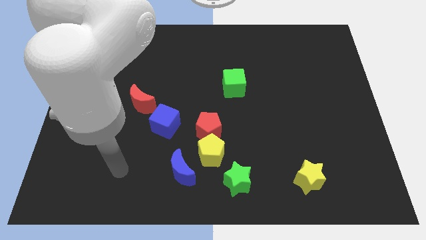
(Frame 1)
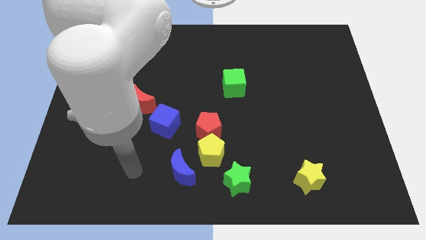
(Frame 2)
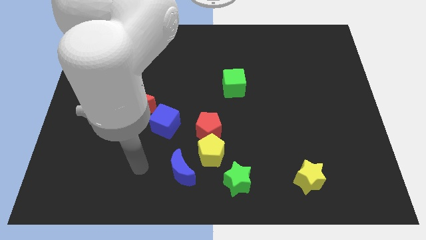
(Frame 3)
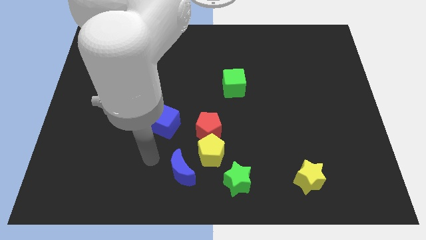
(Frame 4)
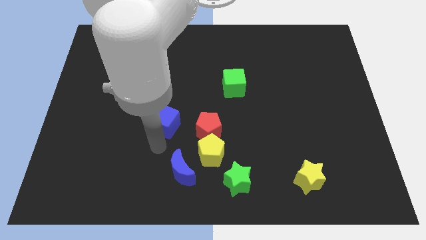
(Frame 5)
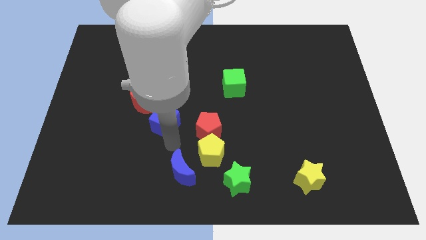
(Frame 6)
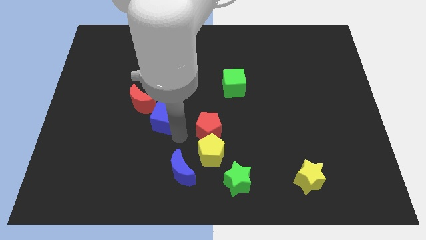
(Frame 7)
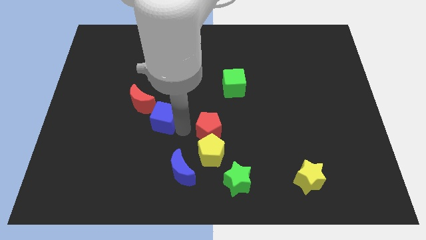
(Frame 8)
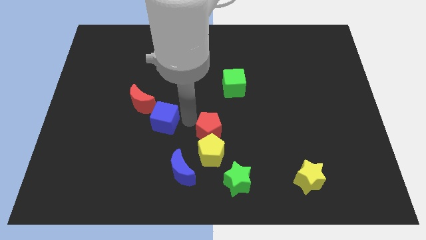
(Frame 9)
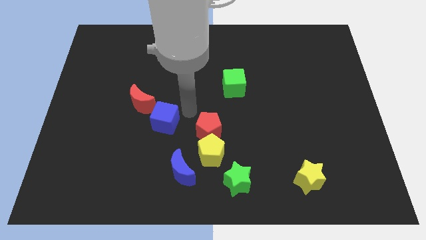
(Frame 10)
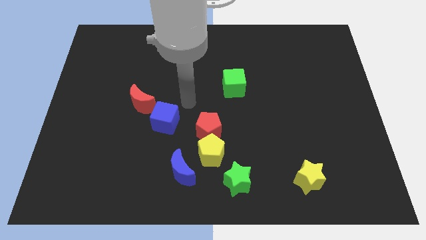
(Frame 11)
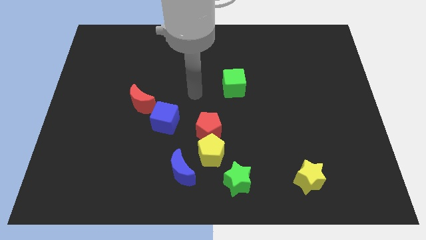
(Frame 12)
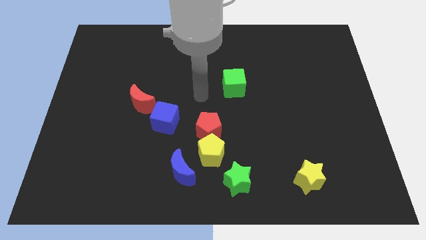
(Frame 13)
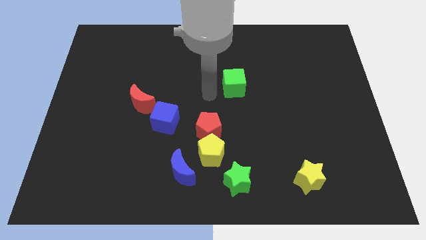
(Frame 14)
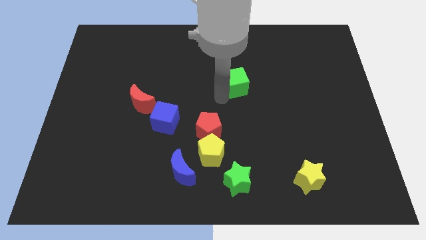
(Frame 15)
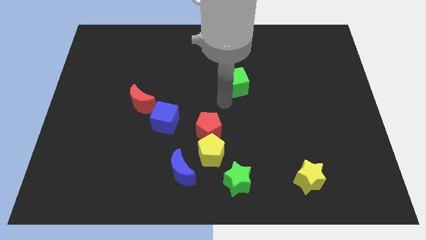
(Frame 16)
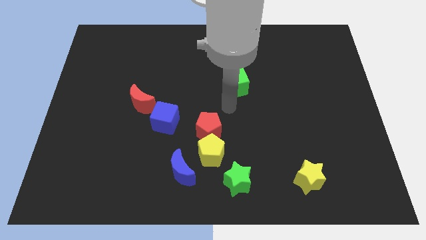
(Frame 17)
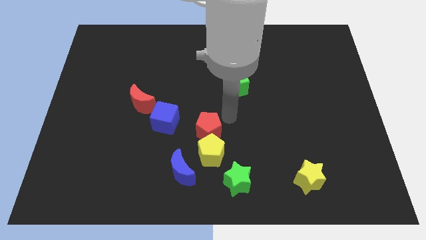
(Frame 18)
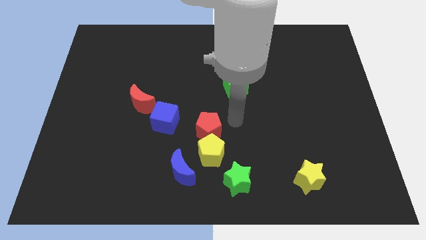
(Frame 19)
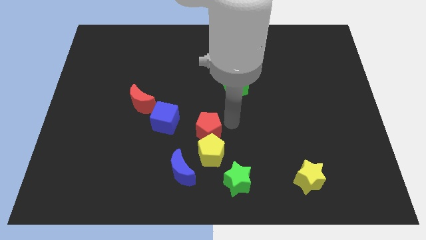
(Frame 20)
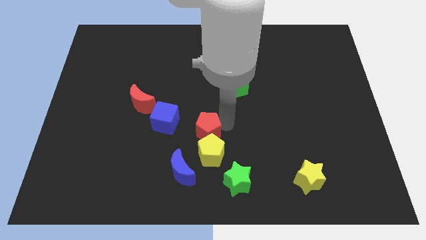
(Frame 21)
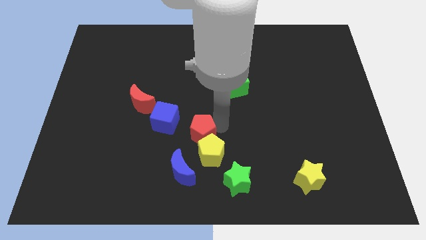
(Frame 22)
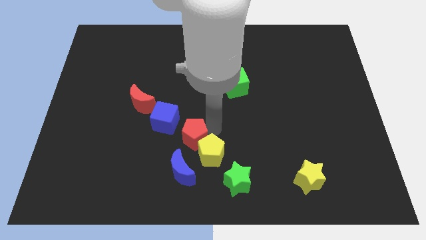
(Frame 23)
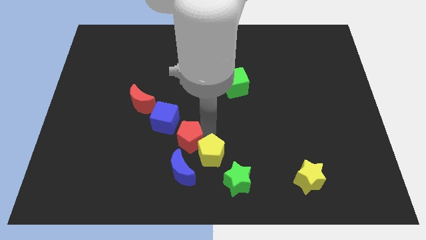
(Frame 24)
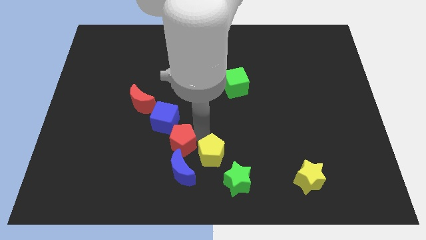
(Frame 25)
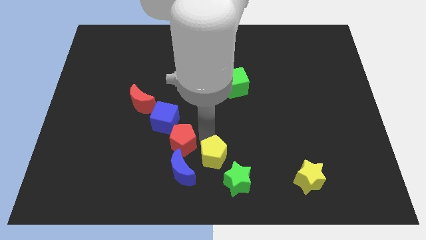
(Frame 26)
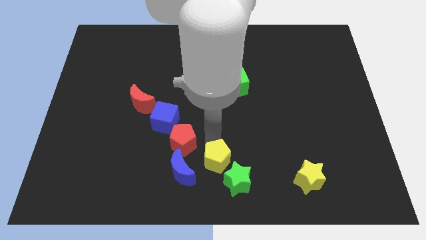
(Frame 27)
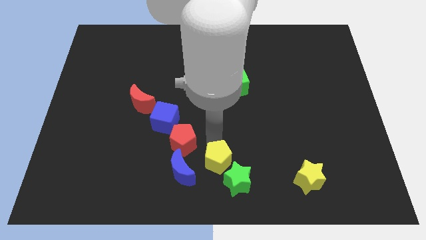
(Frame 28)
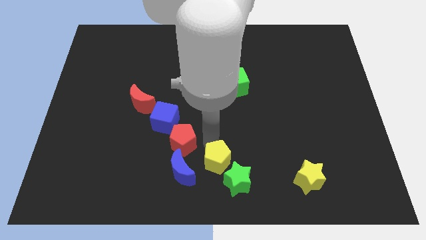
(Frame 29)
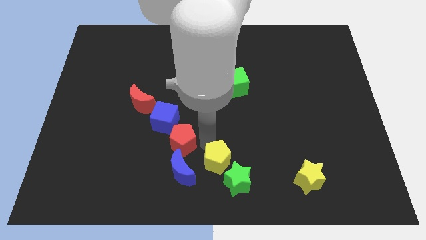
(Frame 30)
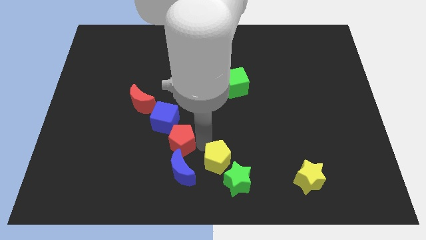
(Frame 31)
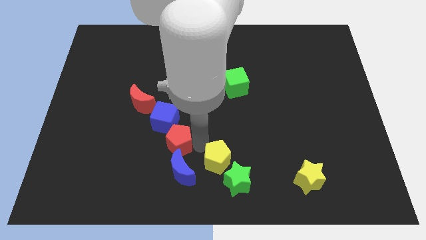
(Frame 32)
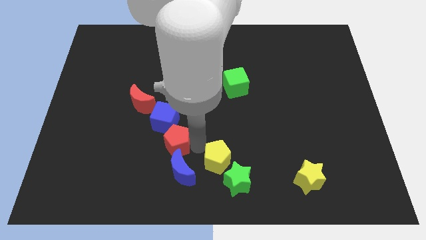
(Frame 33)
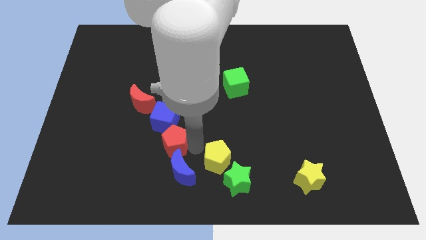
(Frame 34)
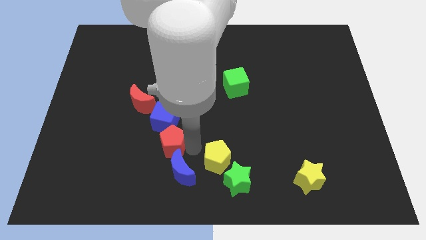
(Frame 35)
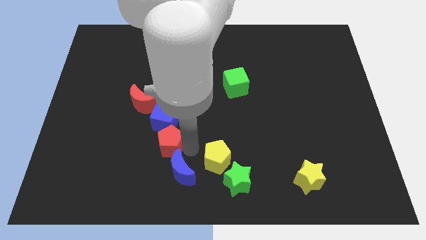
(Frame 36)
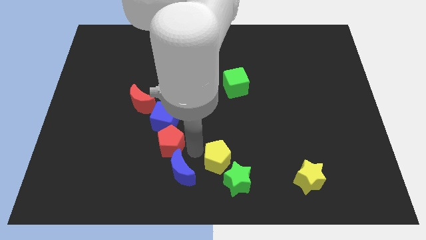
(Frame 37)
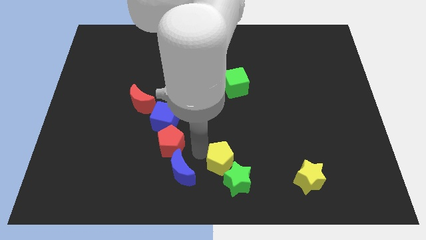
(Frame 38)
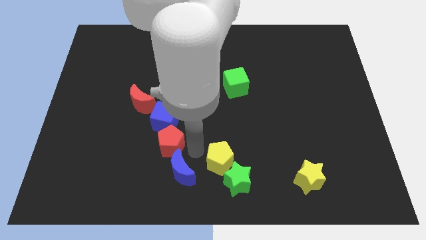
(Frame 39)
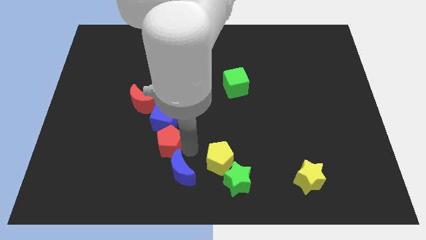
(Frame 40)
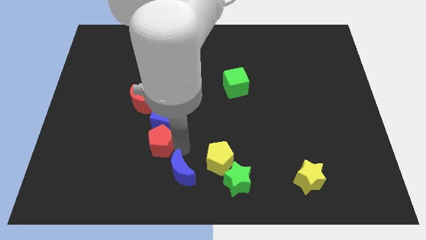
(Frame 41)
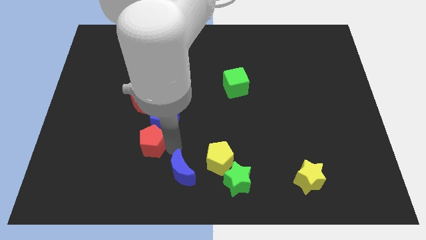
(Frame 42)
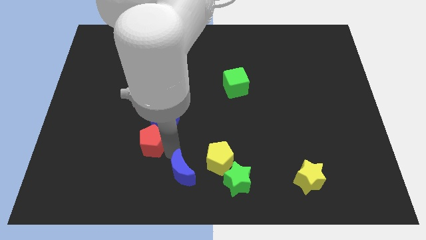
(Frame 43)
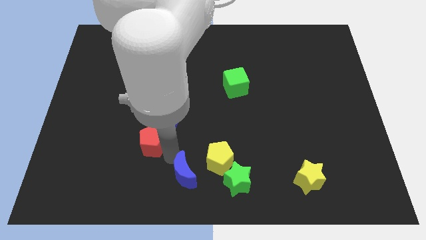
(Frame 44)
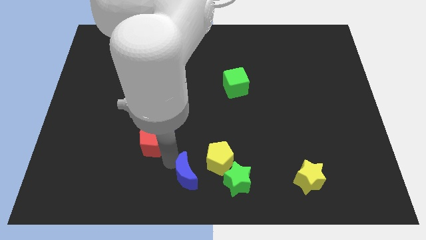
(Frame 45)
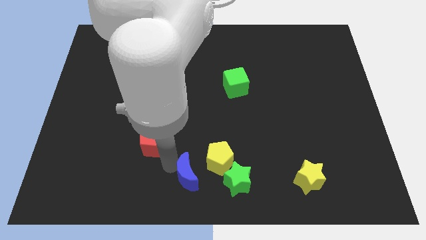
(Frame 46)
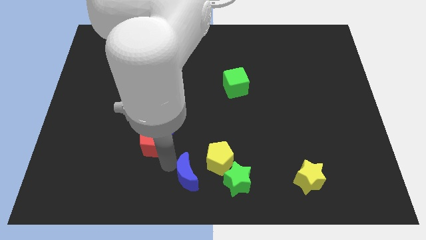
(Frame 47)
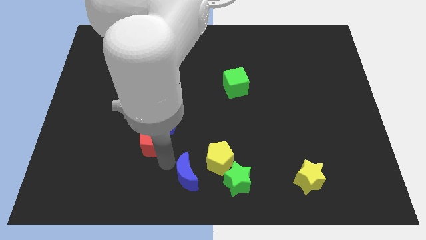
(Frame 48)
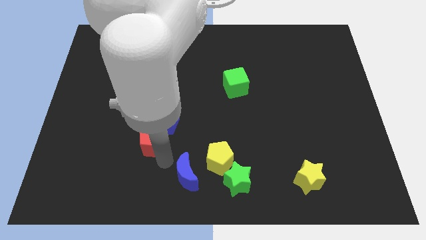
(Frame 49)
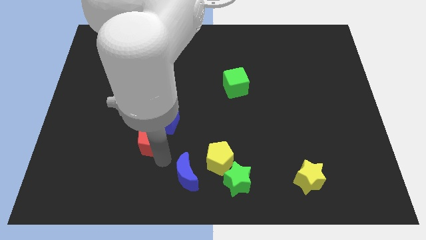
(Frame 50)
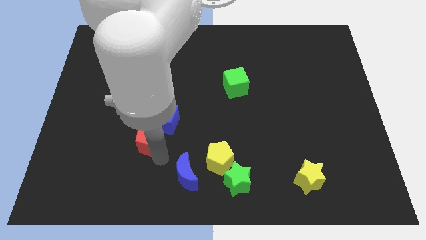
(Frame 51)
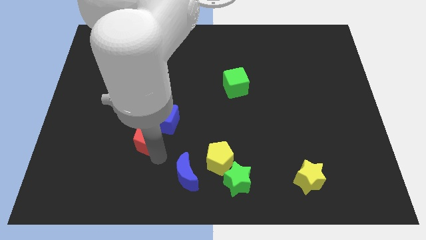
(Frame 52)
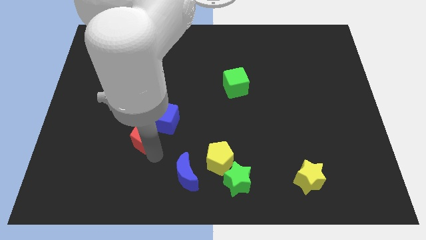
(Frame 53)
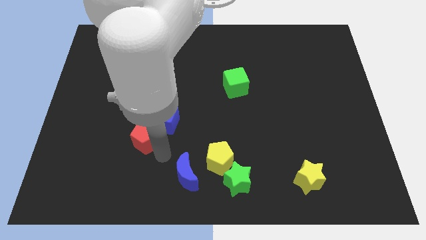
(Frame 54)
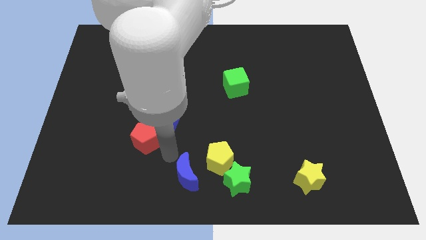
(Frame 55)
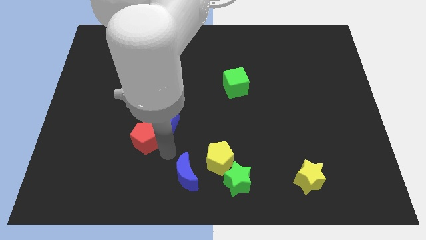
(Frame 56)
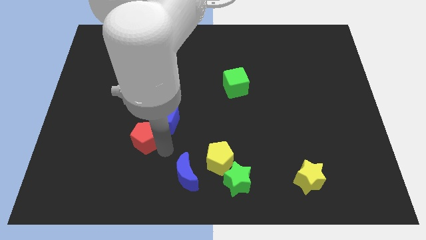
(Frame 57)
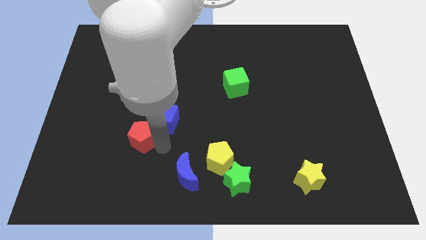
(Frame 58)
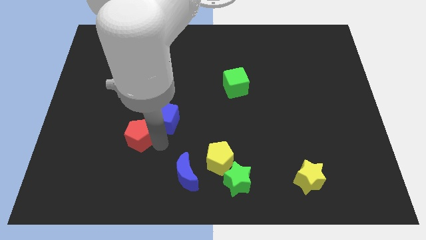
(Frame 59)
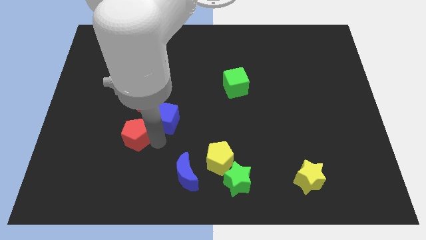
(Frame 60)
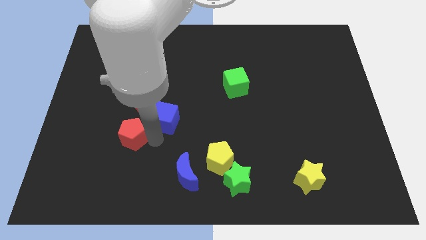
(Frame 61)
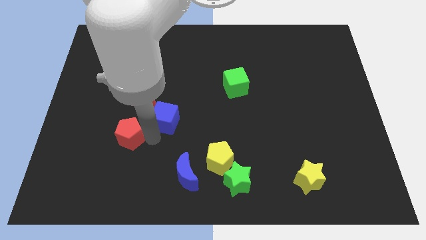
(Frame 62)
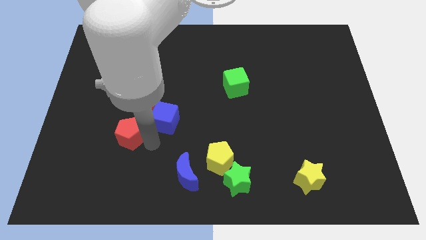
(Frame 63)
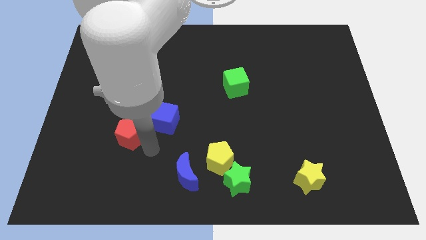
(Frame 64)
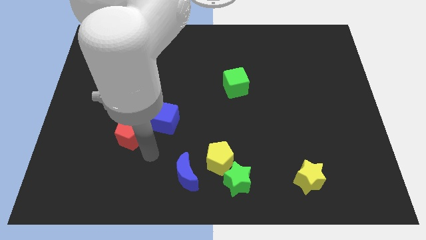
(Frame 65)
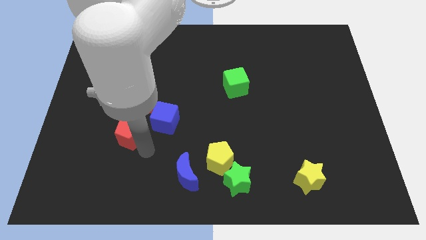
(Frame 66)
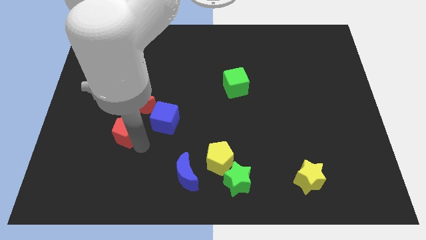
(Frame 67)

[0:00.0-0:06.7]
move the red pentagon to the bottom left of the red moon
